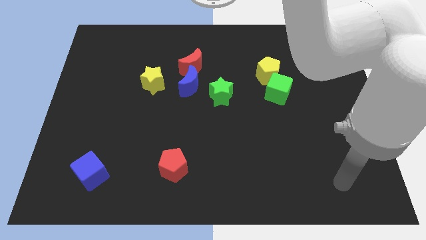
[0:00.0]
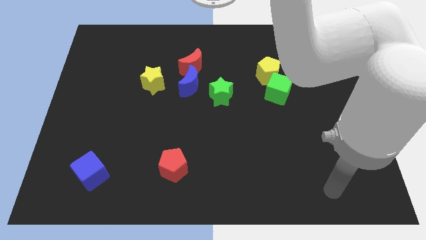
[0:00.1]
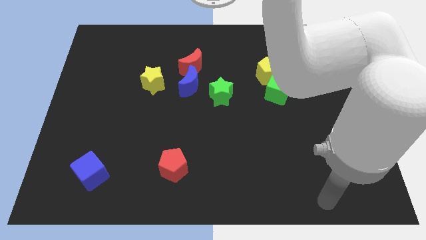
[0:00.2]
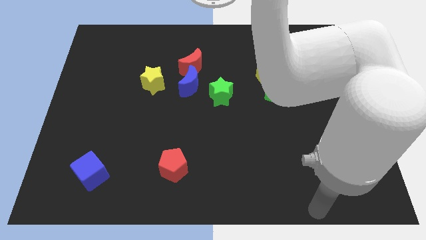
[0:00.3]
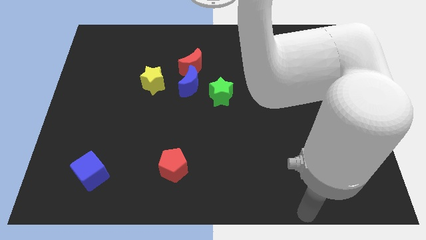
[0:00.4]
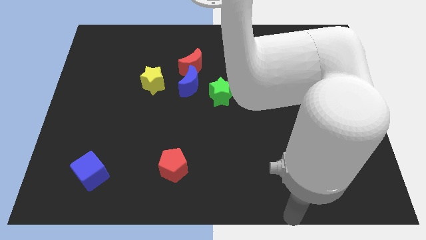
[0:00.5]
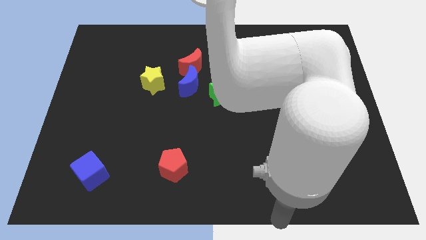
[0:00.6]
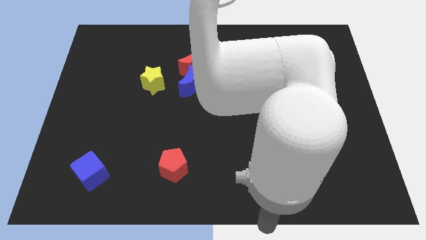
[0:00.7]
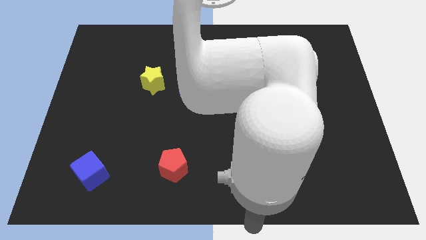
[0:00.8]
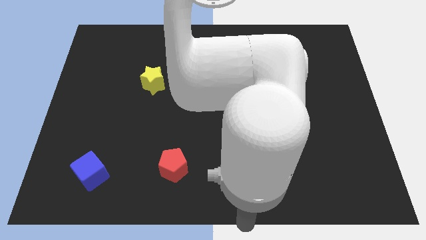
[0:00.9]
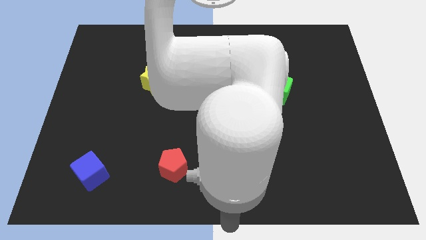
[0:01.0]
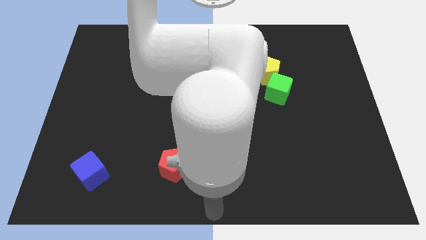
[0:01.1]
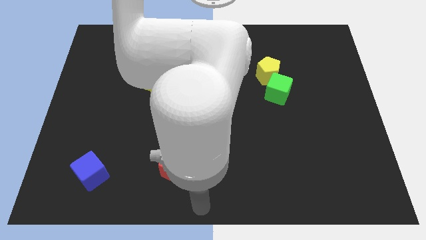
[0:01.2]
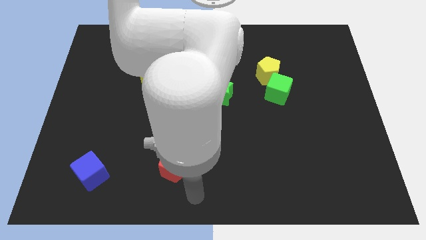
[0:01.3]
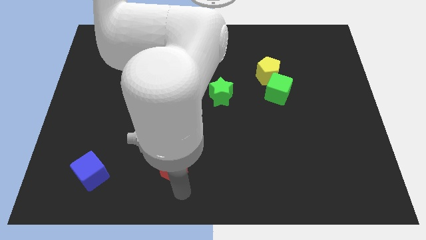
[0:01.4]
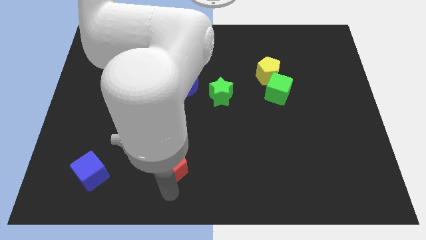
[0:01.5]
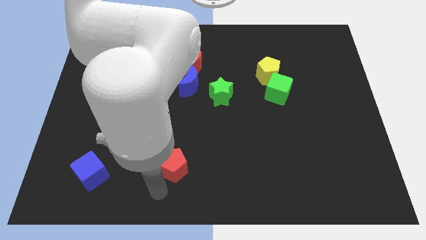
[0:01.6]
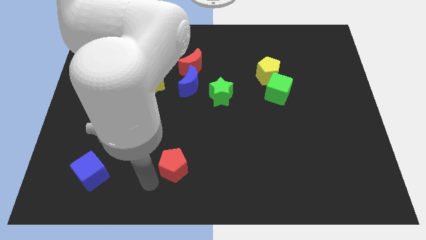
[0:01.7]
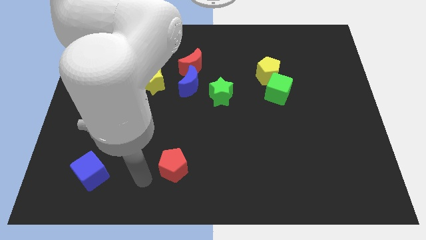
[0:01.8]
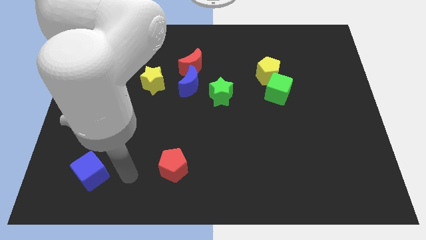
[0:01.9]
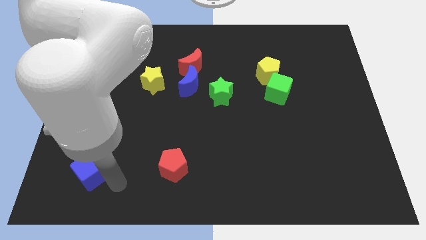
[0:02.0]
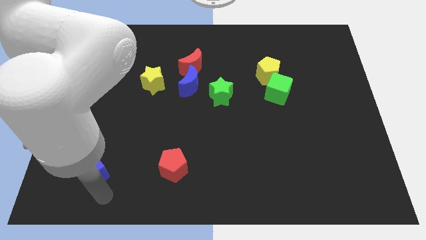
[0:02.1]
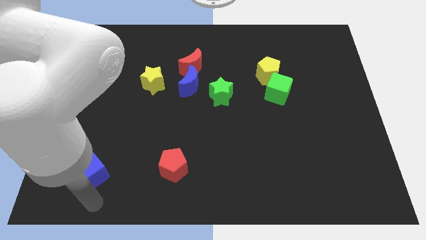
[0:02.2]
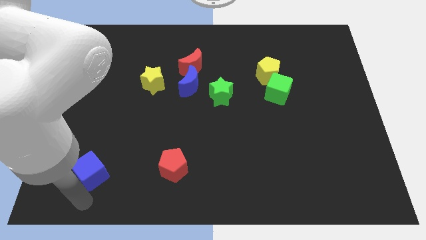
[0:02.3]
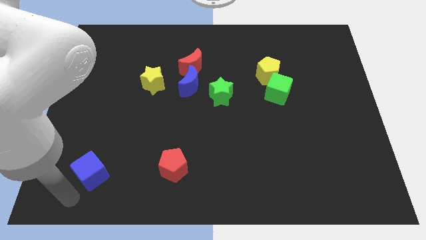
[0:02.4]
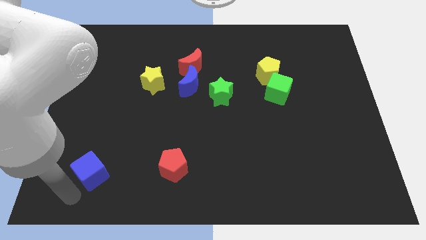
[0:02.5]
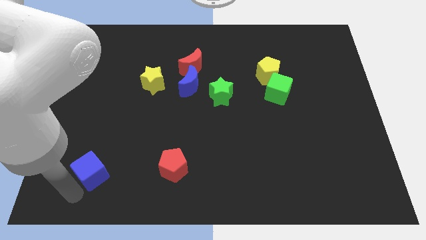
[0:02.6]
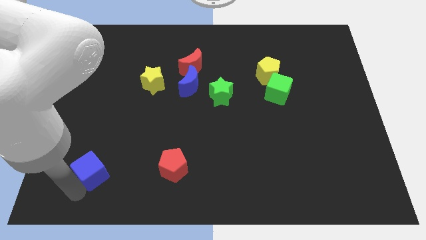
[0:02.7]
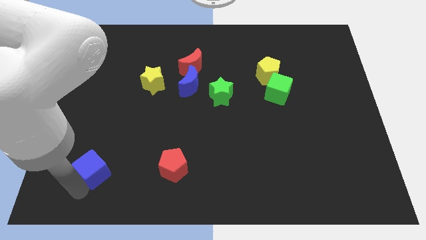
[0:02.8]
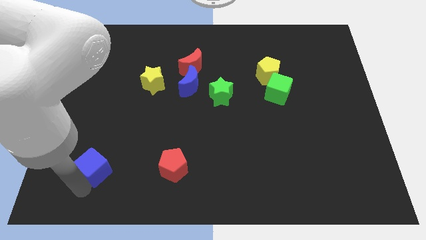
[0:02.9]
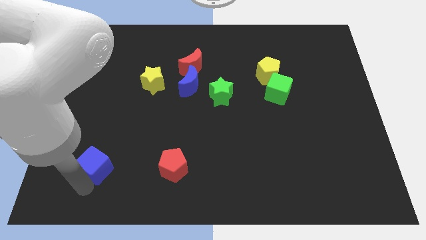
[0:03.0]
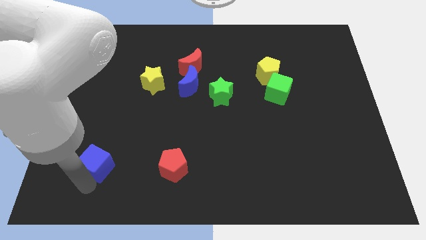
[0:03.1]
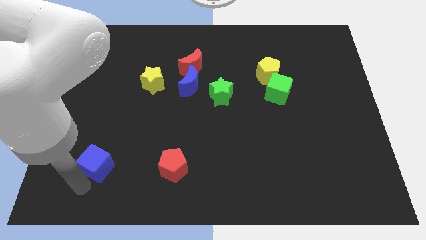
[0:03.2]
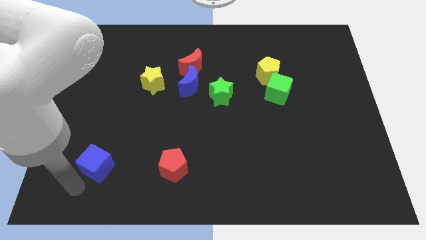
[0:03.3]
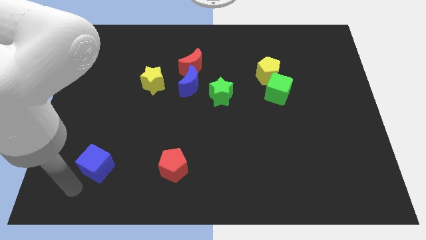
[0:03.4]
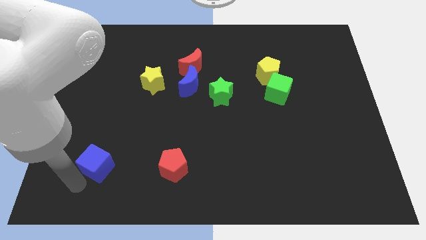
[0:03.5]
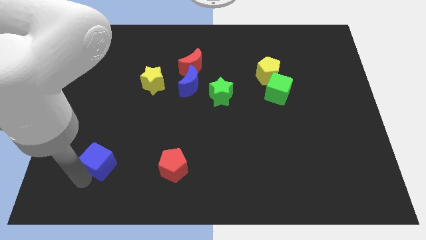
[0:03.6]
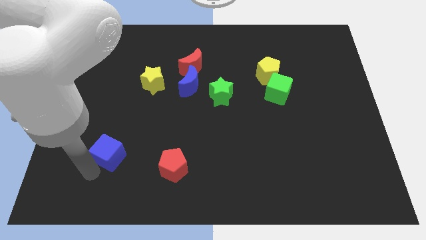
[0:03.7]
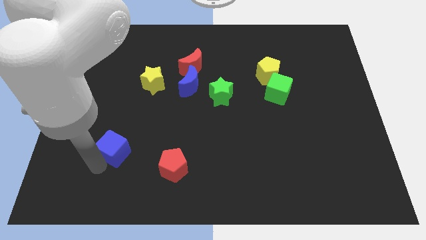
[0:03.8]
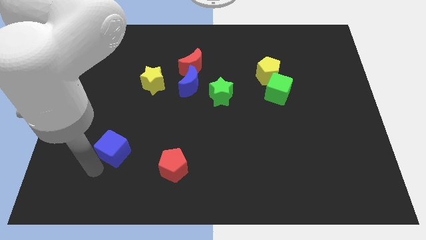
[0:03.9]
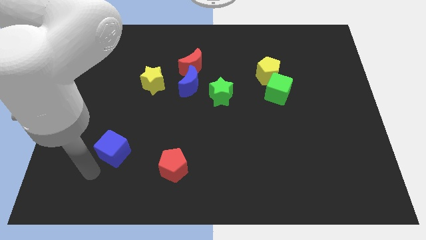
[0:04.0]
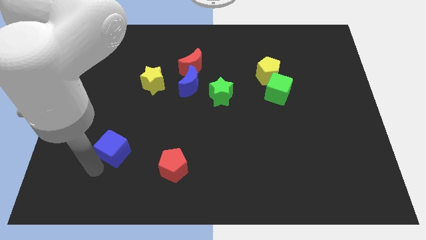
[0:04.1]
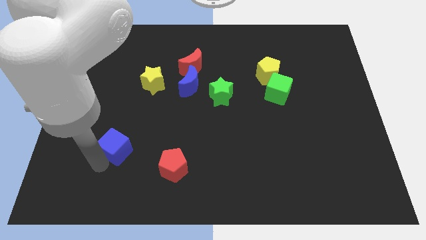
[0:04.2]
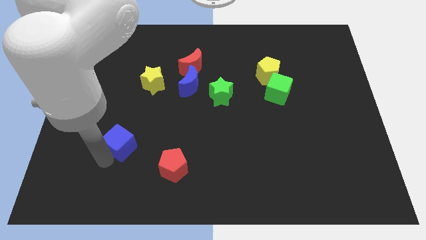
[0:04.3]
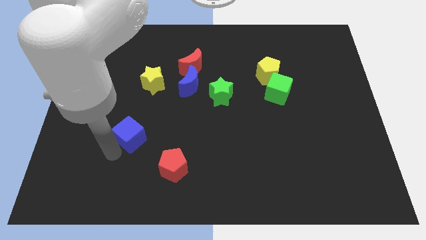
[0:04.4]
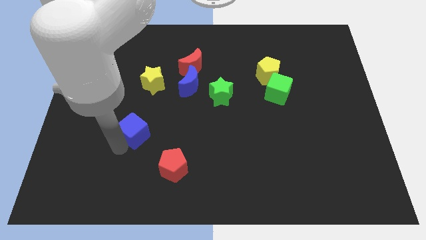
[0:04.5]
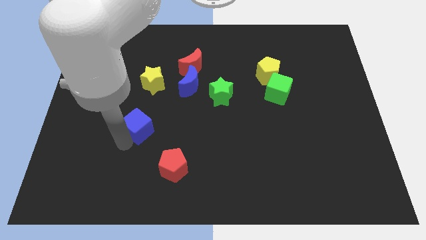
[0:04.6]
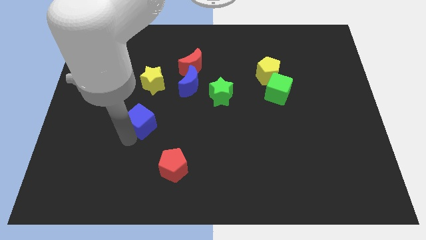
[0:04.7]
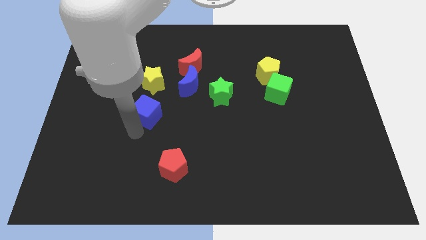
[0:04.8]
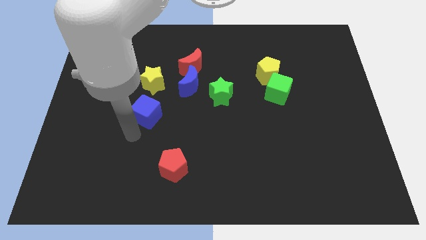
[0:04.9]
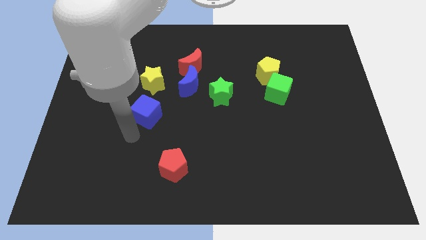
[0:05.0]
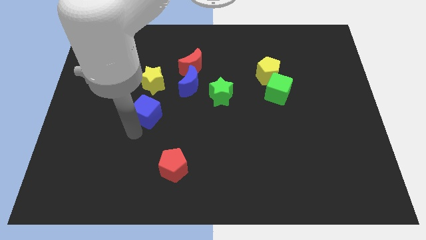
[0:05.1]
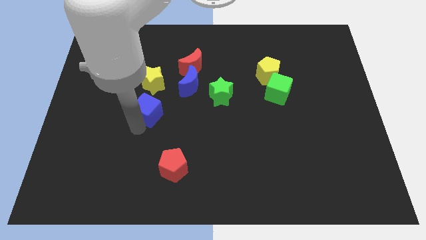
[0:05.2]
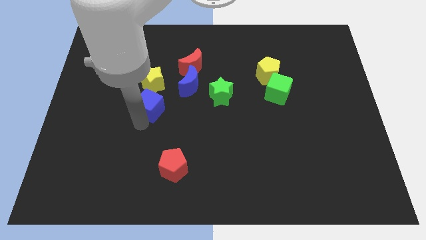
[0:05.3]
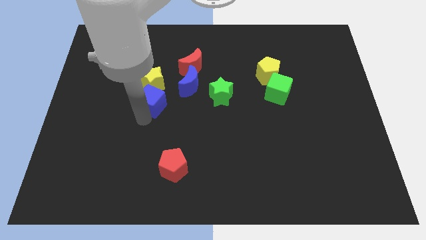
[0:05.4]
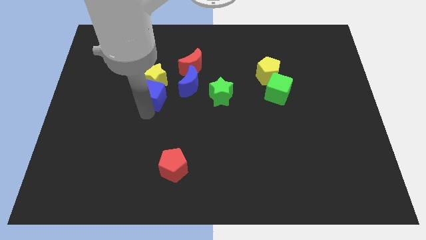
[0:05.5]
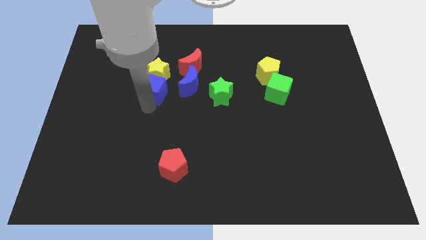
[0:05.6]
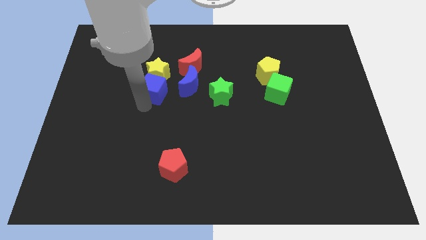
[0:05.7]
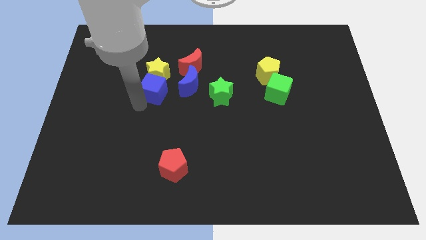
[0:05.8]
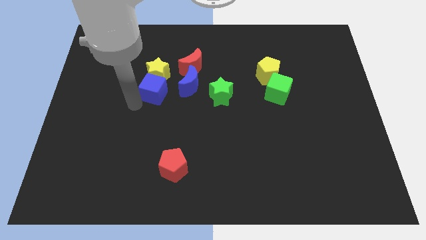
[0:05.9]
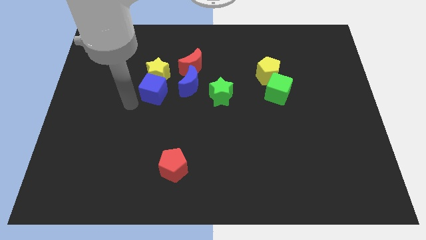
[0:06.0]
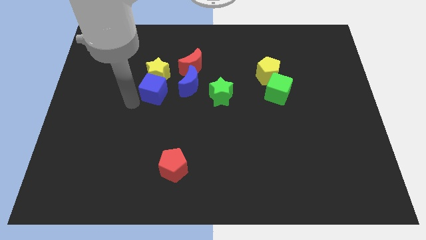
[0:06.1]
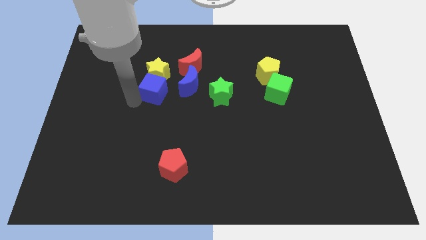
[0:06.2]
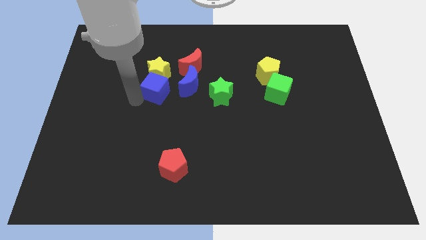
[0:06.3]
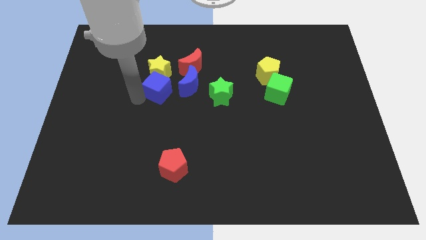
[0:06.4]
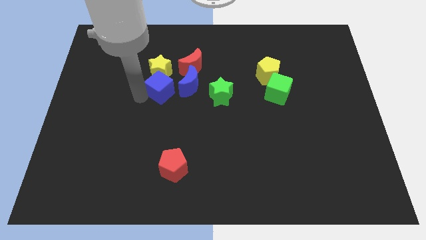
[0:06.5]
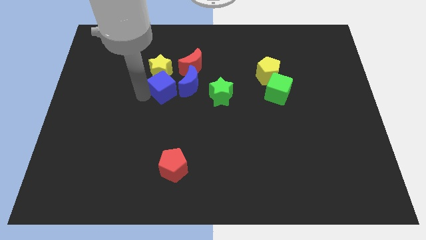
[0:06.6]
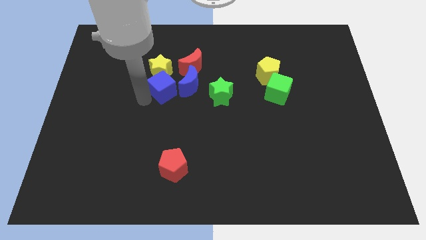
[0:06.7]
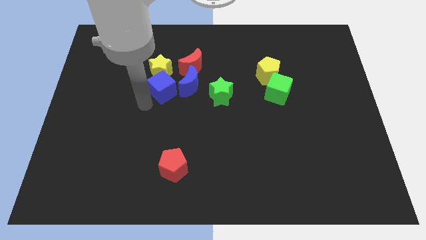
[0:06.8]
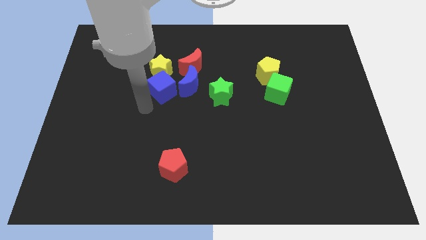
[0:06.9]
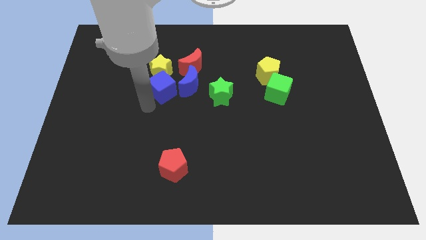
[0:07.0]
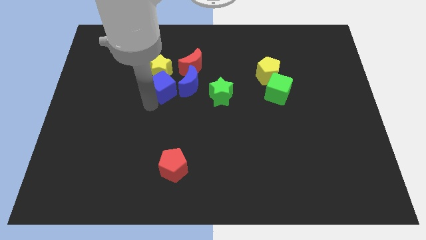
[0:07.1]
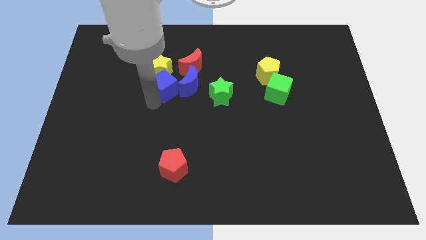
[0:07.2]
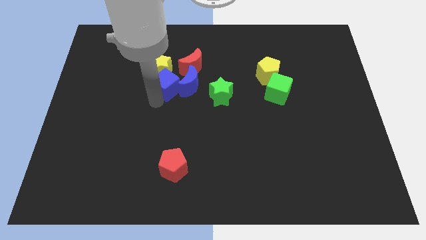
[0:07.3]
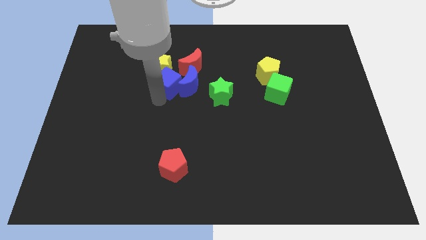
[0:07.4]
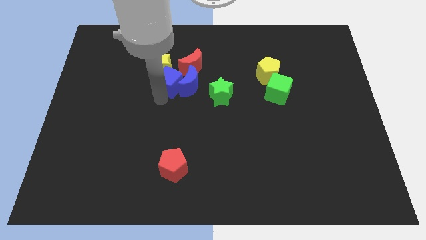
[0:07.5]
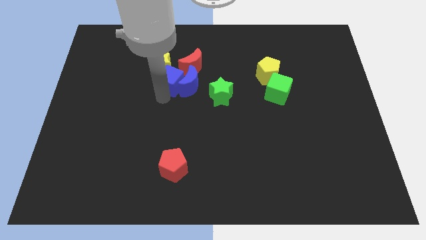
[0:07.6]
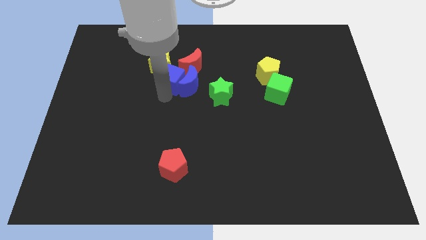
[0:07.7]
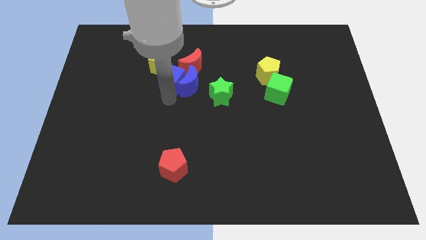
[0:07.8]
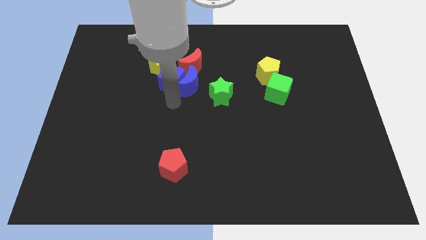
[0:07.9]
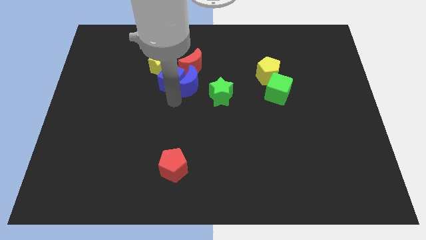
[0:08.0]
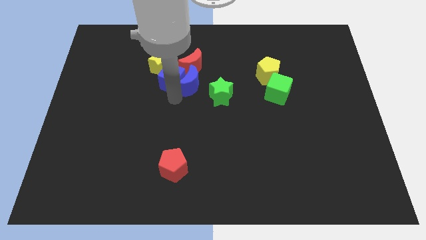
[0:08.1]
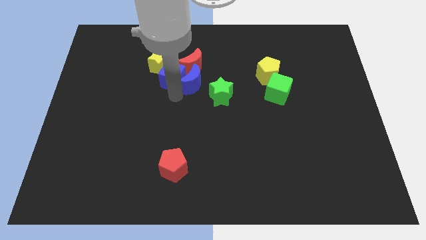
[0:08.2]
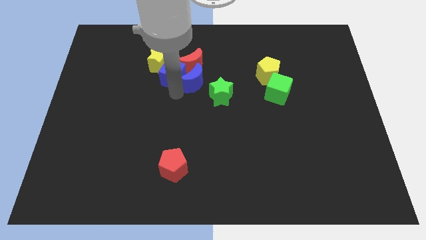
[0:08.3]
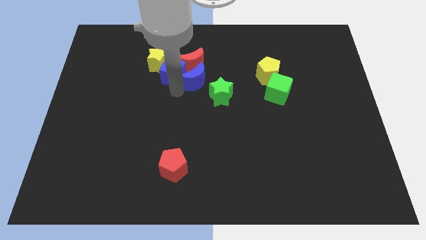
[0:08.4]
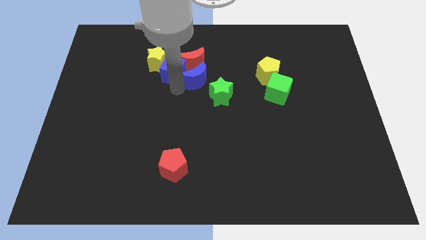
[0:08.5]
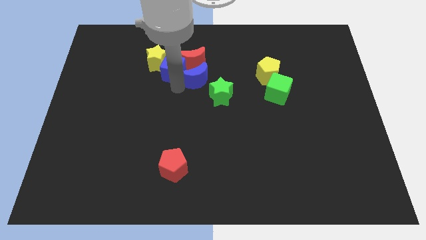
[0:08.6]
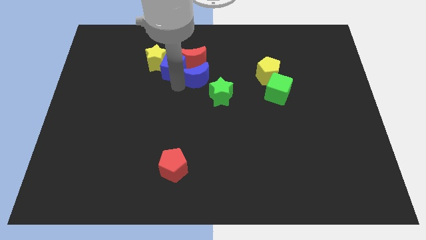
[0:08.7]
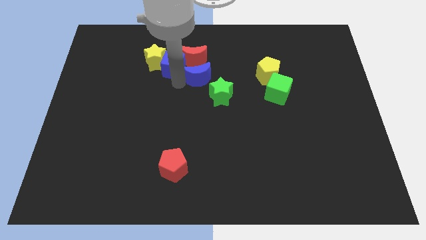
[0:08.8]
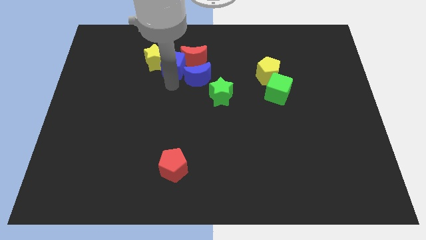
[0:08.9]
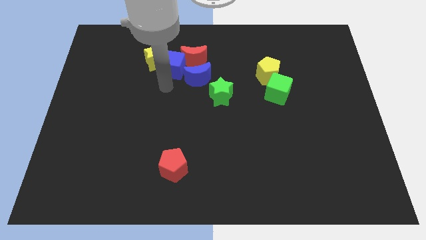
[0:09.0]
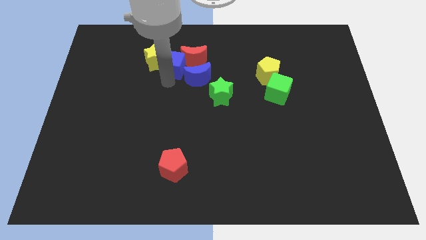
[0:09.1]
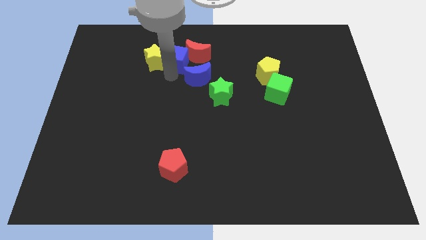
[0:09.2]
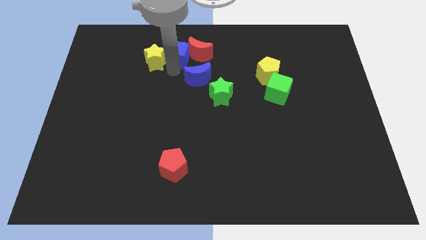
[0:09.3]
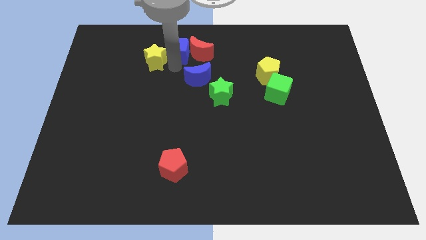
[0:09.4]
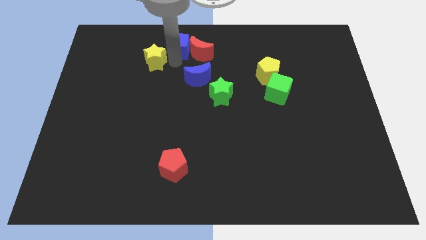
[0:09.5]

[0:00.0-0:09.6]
put the blue cube to the top
